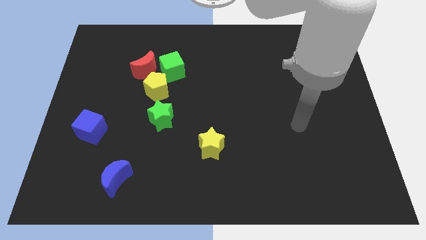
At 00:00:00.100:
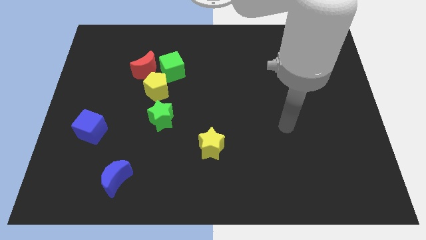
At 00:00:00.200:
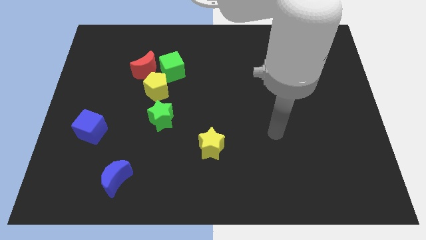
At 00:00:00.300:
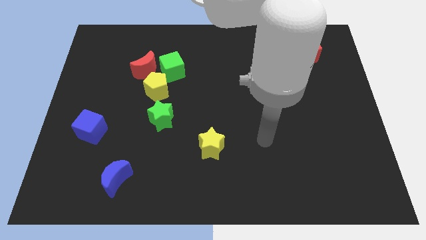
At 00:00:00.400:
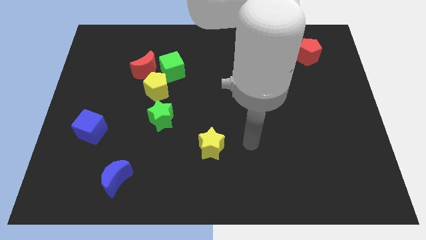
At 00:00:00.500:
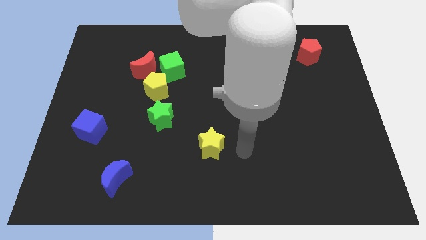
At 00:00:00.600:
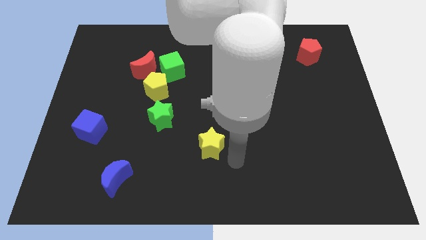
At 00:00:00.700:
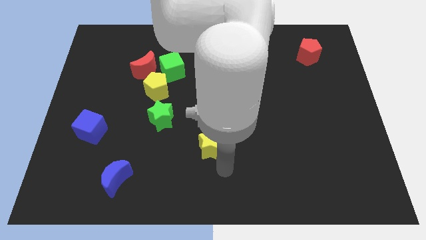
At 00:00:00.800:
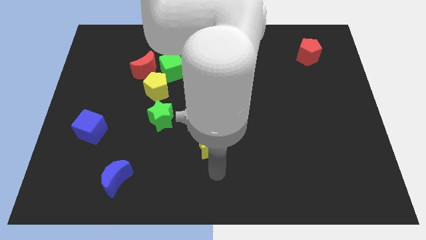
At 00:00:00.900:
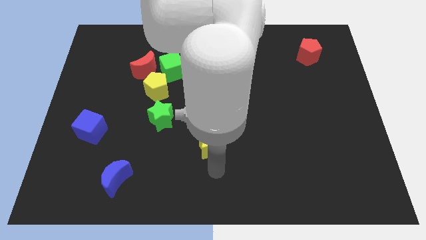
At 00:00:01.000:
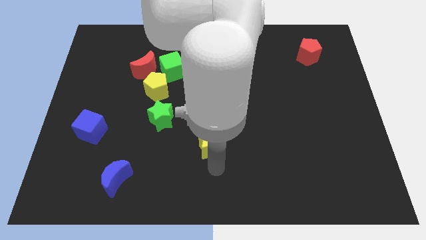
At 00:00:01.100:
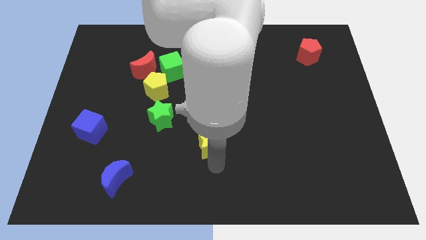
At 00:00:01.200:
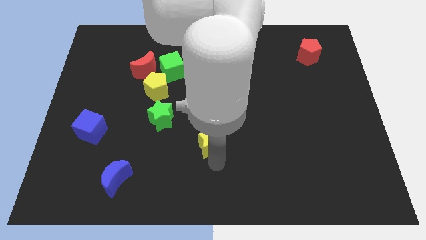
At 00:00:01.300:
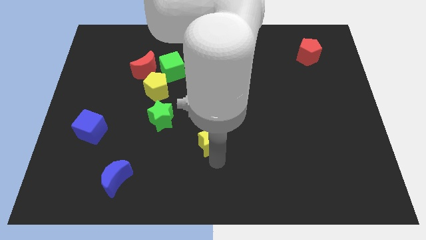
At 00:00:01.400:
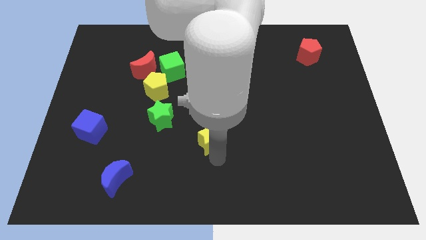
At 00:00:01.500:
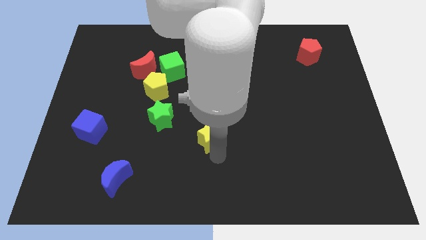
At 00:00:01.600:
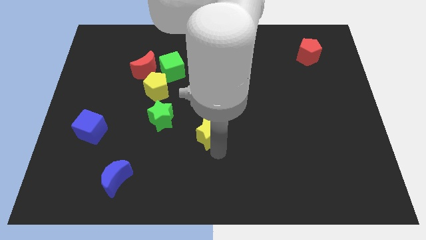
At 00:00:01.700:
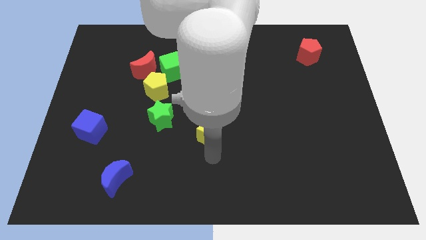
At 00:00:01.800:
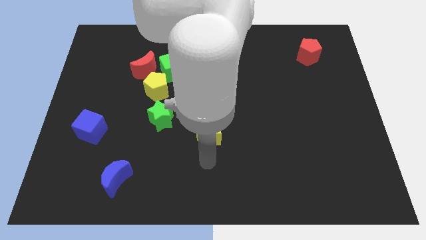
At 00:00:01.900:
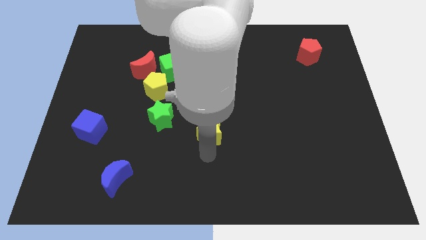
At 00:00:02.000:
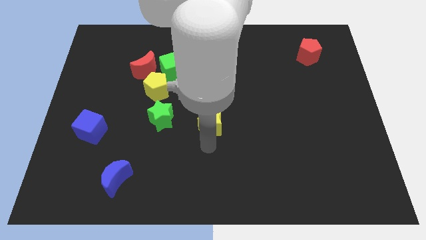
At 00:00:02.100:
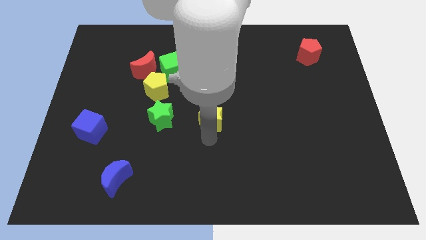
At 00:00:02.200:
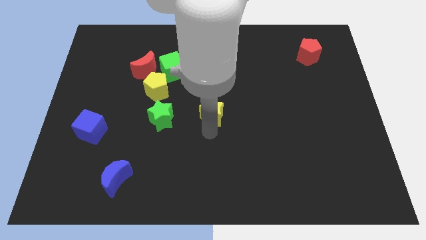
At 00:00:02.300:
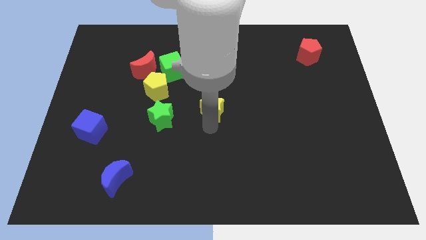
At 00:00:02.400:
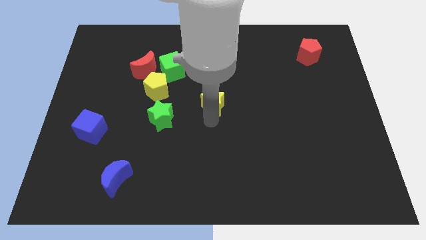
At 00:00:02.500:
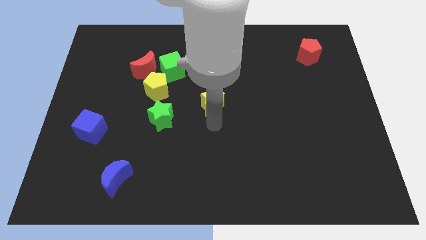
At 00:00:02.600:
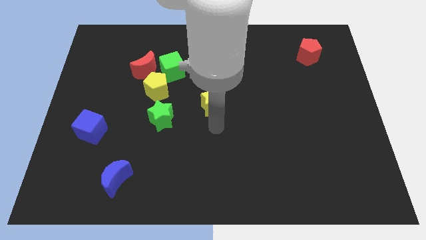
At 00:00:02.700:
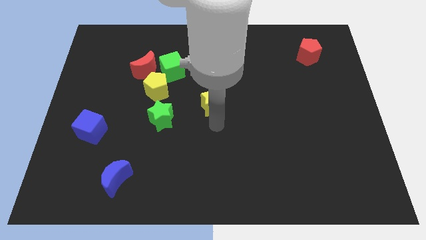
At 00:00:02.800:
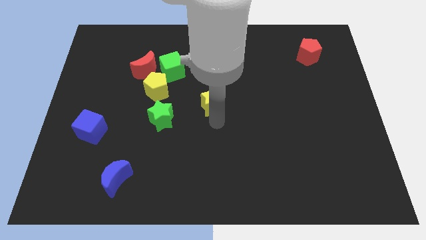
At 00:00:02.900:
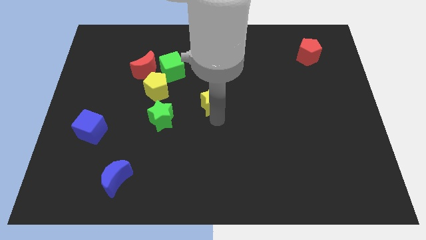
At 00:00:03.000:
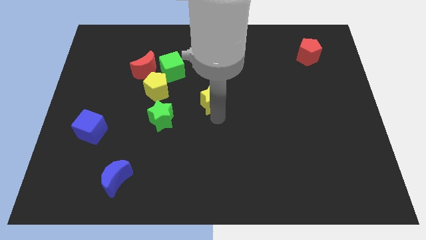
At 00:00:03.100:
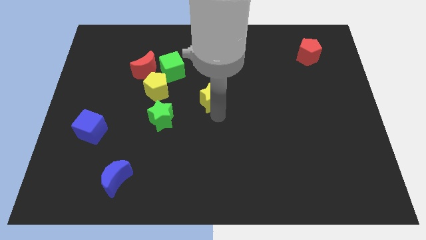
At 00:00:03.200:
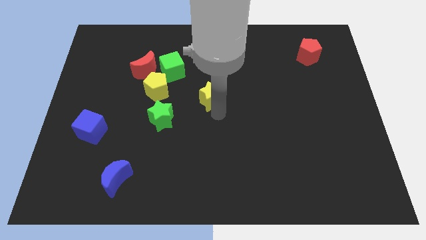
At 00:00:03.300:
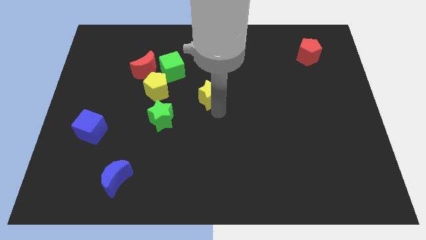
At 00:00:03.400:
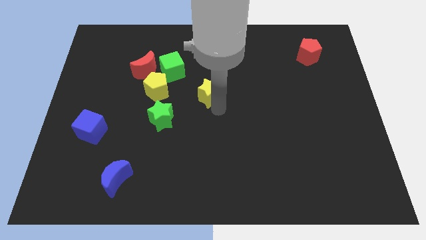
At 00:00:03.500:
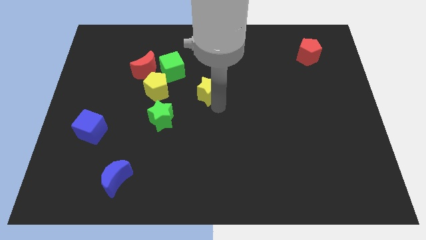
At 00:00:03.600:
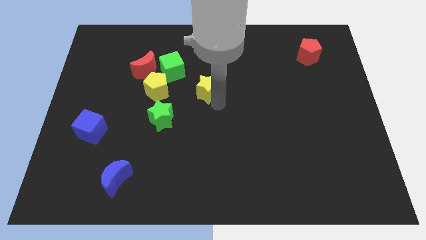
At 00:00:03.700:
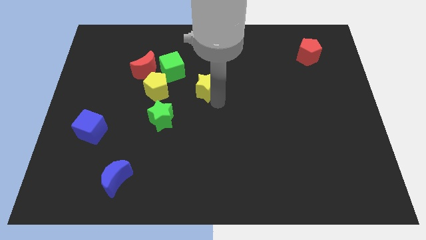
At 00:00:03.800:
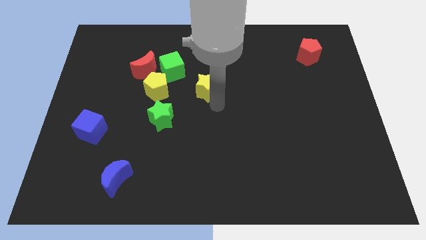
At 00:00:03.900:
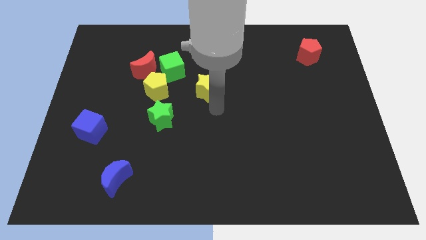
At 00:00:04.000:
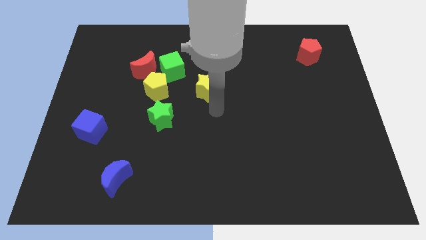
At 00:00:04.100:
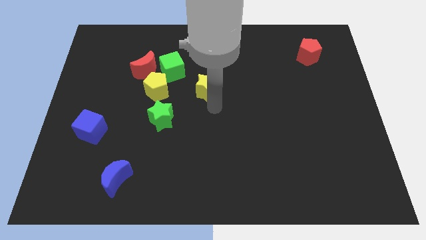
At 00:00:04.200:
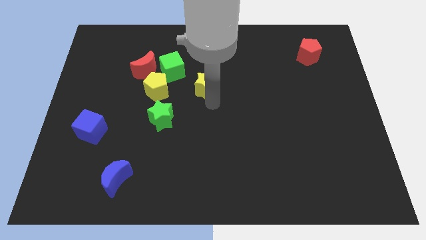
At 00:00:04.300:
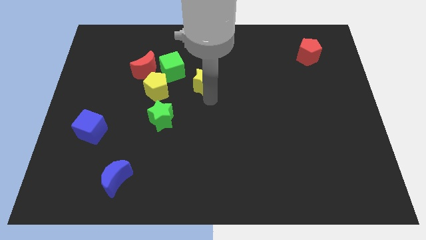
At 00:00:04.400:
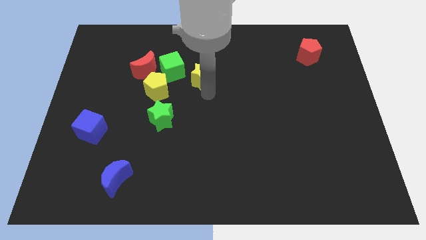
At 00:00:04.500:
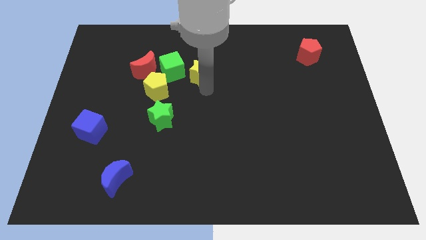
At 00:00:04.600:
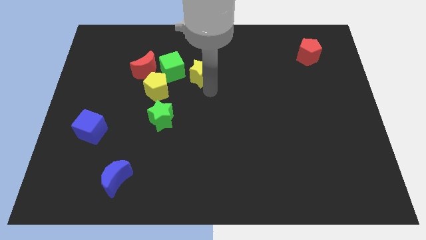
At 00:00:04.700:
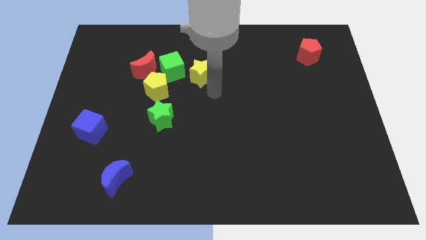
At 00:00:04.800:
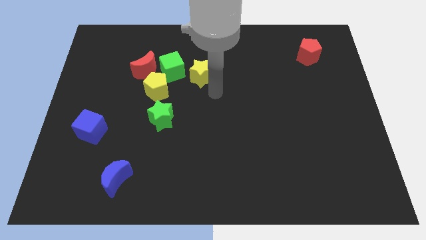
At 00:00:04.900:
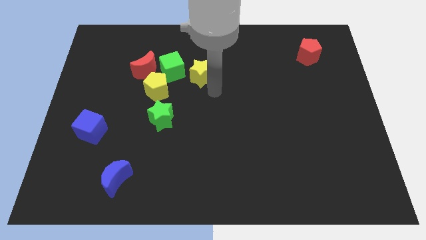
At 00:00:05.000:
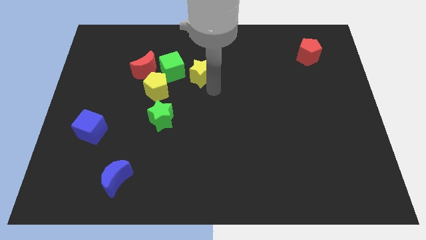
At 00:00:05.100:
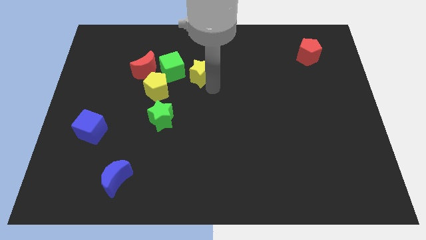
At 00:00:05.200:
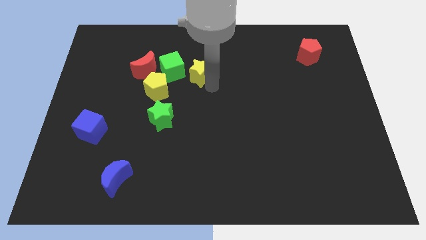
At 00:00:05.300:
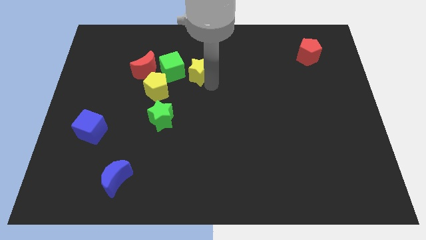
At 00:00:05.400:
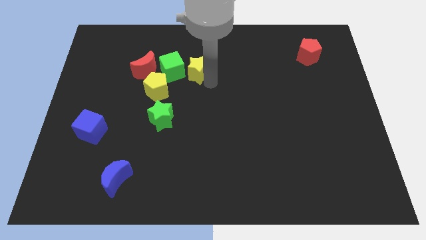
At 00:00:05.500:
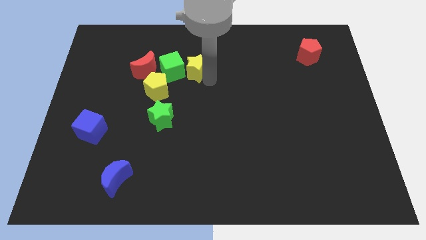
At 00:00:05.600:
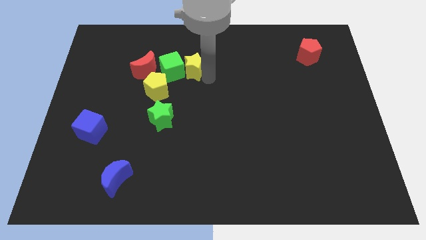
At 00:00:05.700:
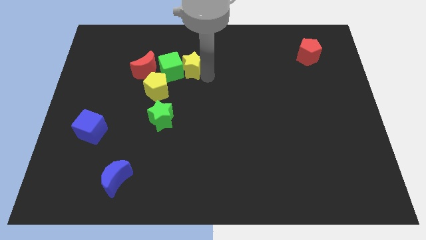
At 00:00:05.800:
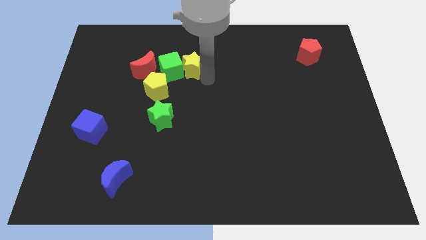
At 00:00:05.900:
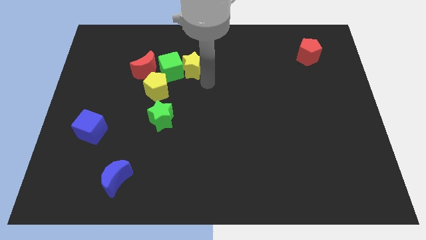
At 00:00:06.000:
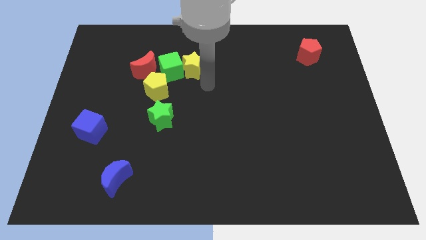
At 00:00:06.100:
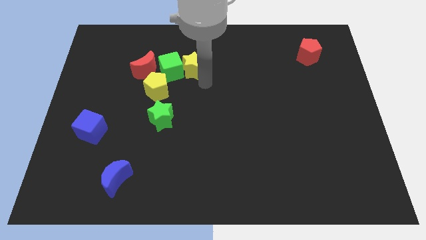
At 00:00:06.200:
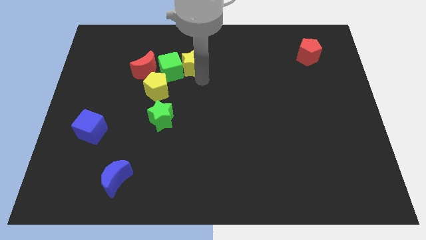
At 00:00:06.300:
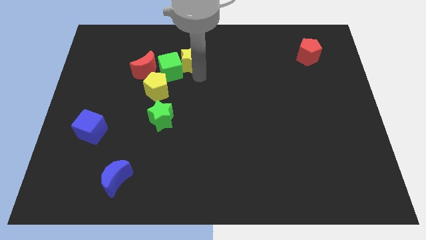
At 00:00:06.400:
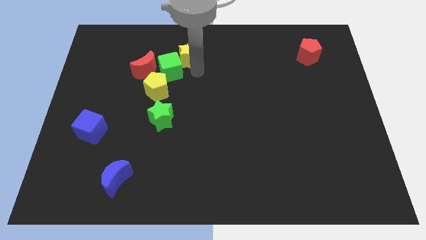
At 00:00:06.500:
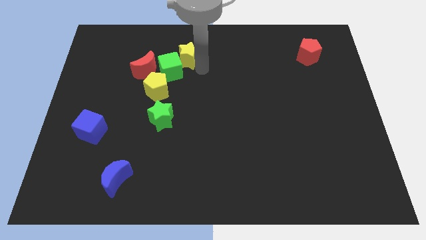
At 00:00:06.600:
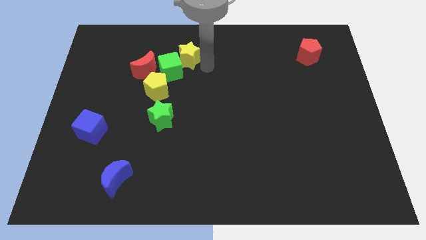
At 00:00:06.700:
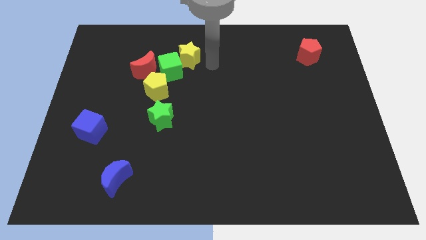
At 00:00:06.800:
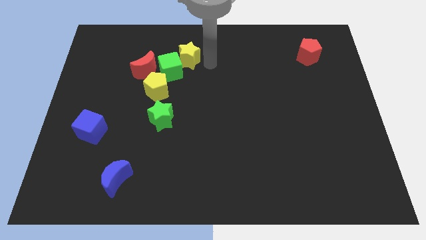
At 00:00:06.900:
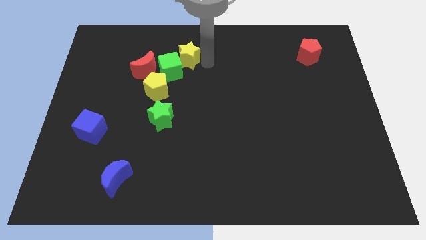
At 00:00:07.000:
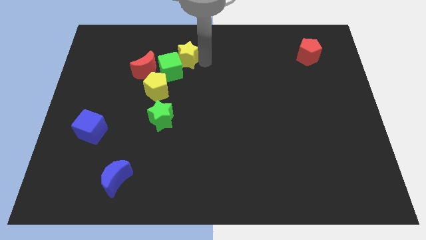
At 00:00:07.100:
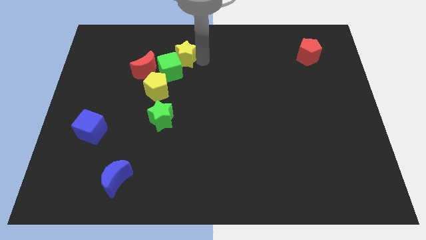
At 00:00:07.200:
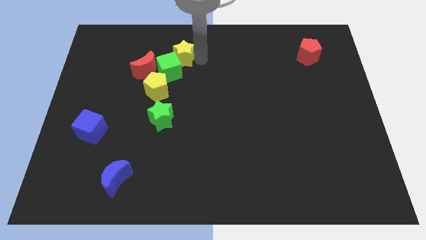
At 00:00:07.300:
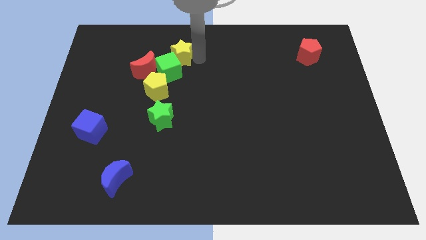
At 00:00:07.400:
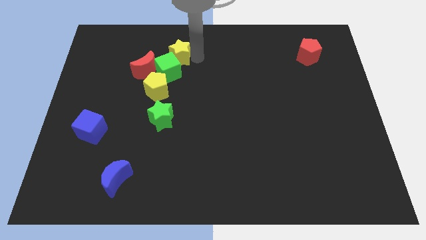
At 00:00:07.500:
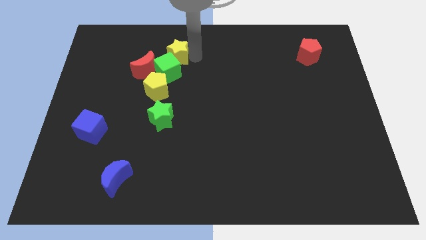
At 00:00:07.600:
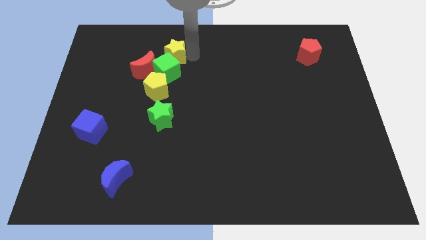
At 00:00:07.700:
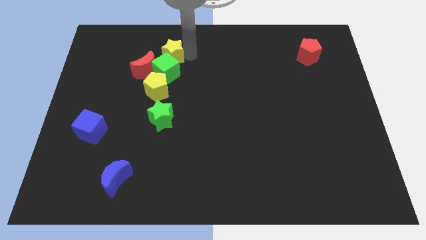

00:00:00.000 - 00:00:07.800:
put the yellow star diagonally up and to the left of the green cube
